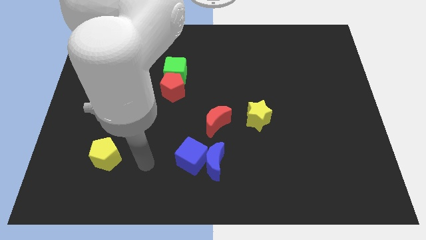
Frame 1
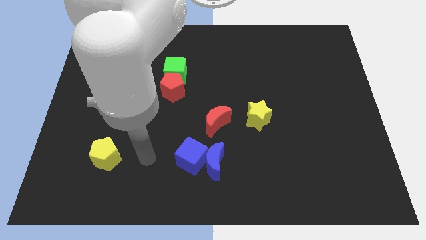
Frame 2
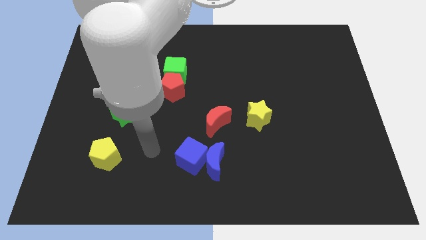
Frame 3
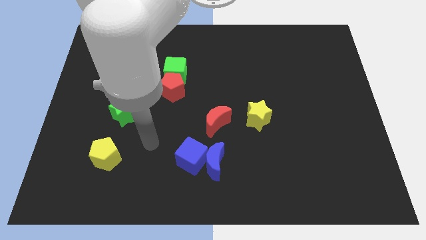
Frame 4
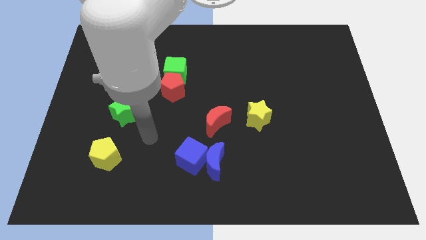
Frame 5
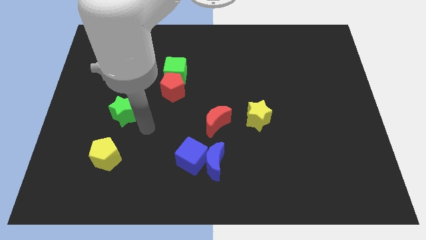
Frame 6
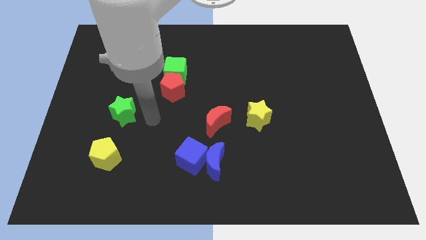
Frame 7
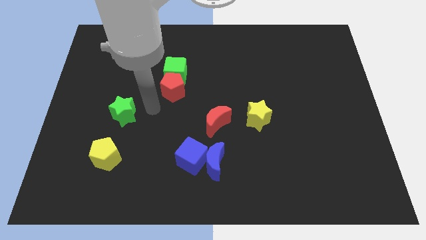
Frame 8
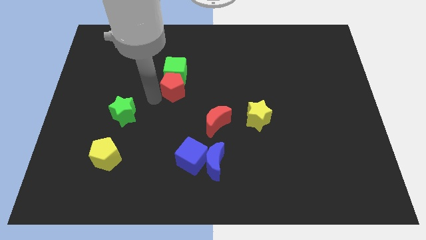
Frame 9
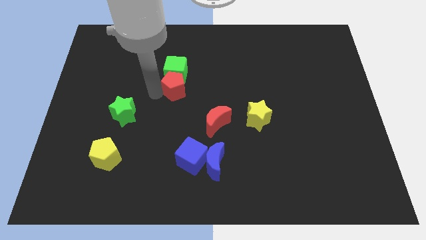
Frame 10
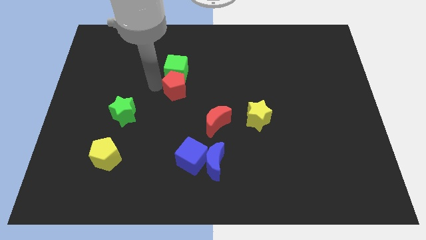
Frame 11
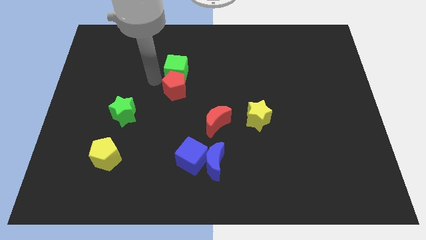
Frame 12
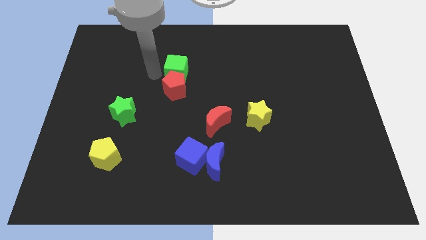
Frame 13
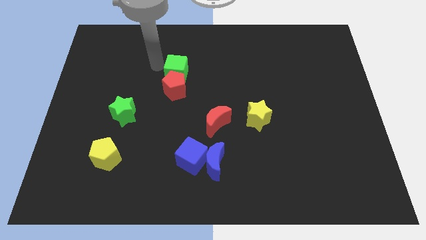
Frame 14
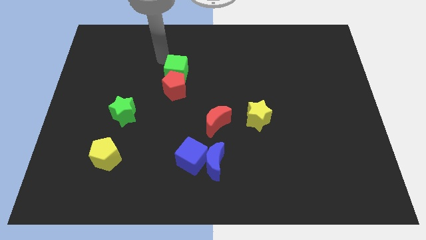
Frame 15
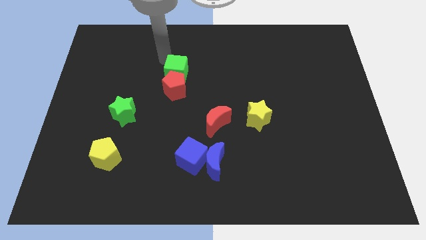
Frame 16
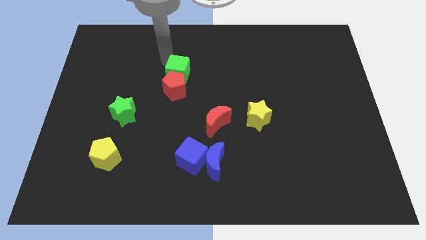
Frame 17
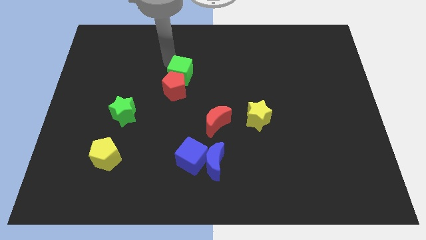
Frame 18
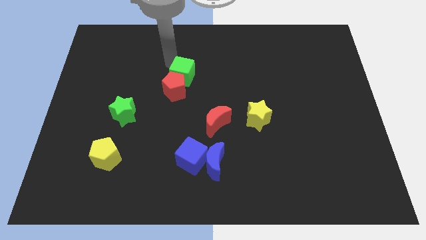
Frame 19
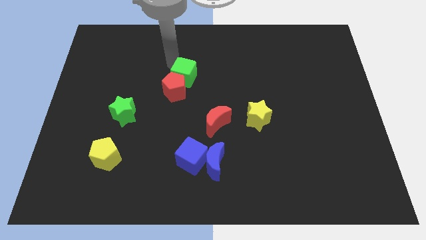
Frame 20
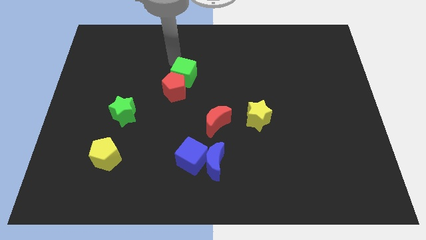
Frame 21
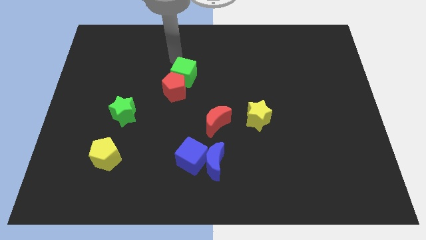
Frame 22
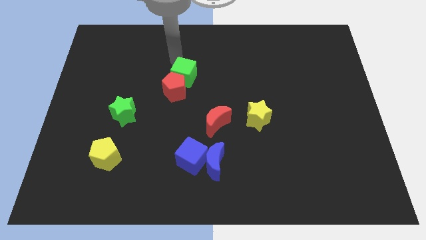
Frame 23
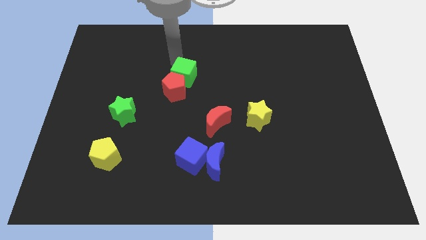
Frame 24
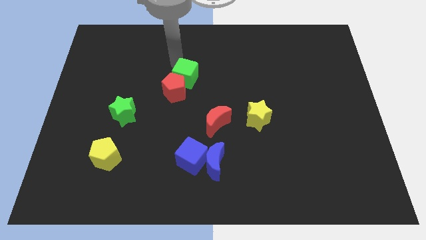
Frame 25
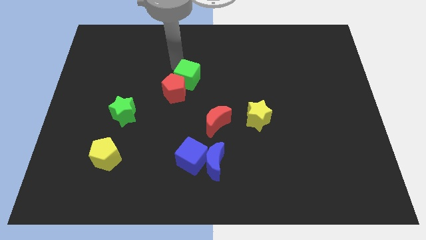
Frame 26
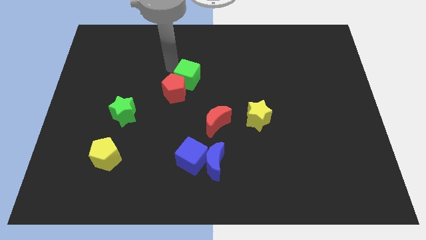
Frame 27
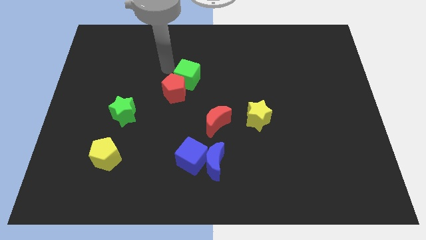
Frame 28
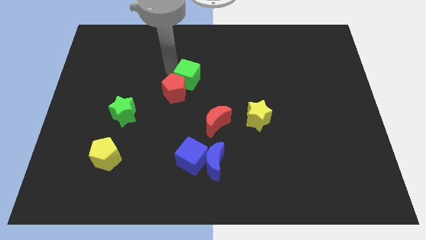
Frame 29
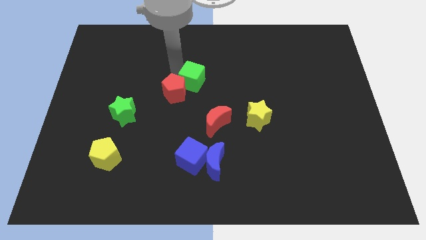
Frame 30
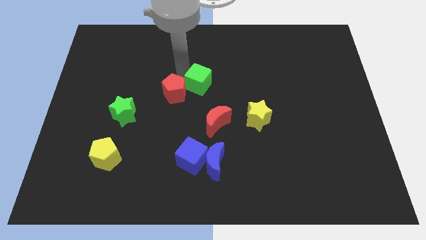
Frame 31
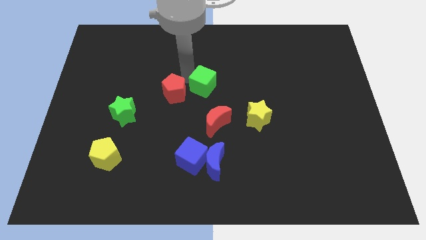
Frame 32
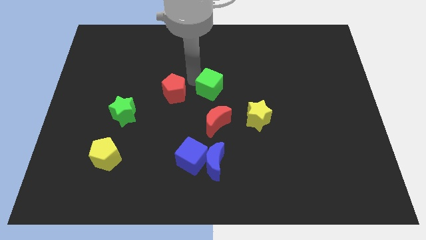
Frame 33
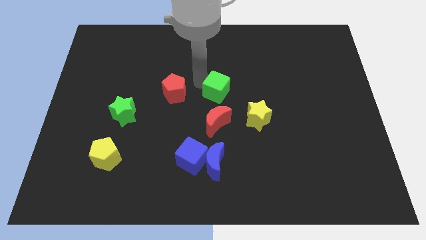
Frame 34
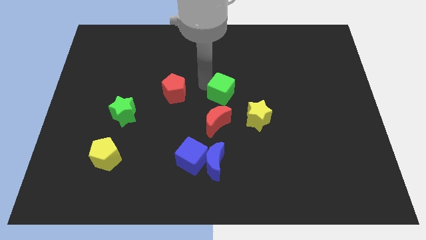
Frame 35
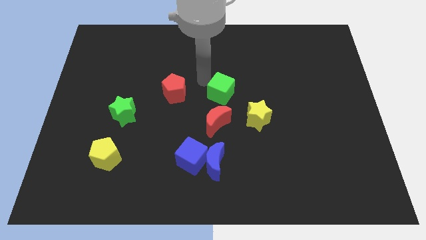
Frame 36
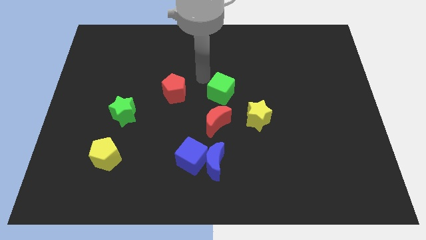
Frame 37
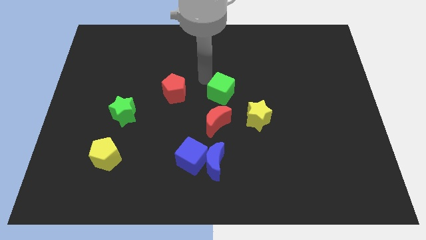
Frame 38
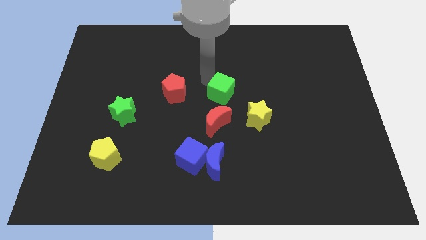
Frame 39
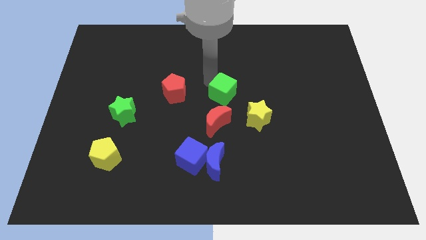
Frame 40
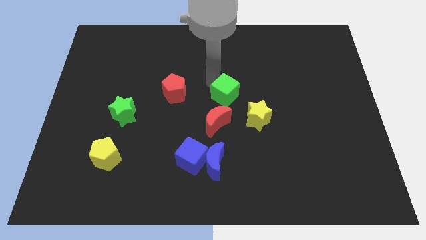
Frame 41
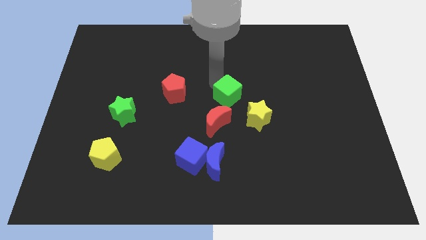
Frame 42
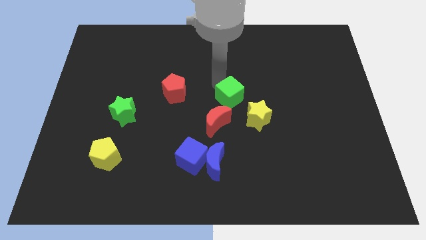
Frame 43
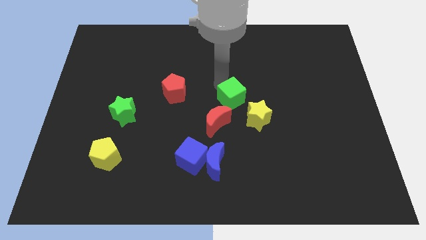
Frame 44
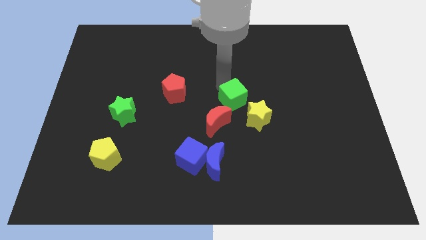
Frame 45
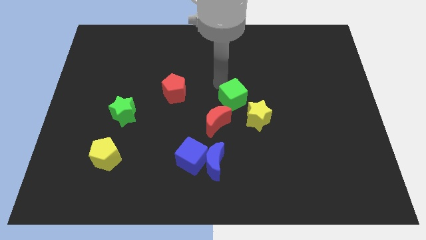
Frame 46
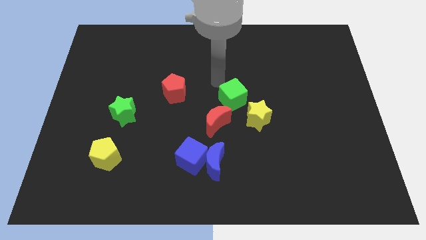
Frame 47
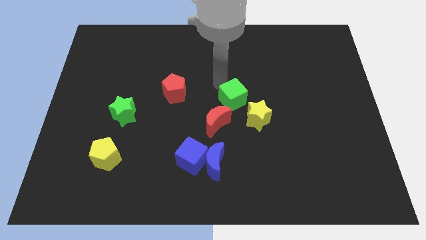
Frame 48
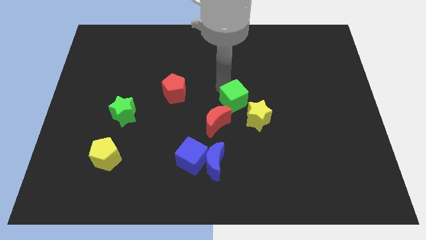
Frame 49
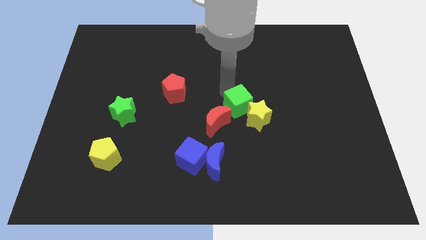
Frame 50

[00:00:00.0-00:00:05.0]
move the green cube towards the yellow star
